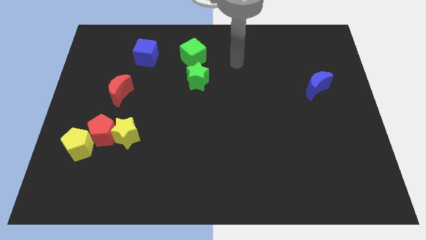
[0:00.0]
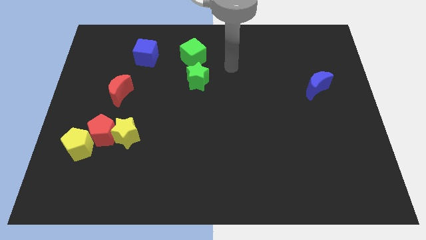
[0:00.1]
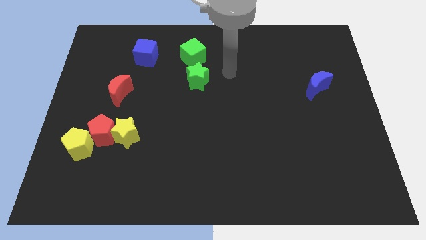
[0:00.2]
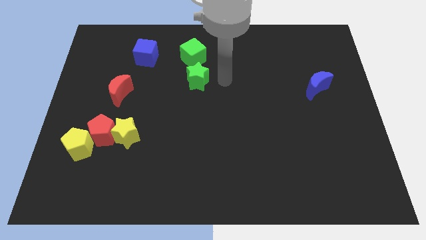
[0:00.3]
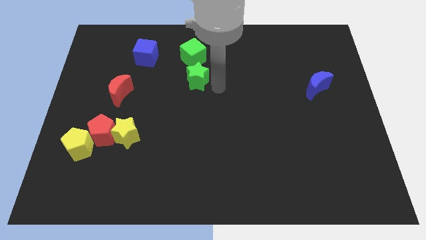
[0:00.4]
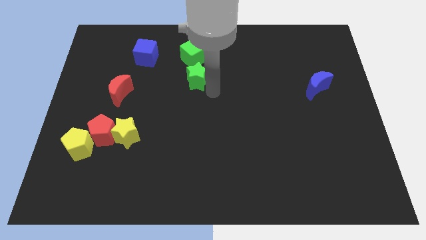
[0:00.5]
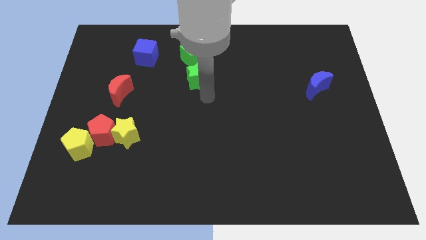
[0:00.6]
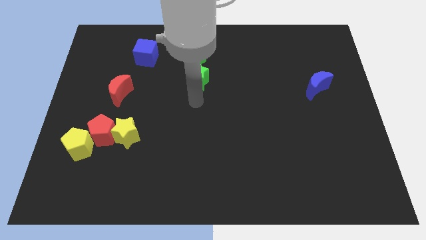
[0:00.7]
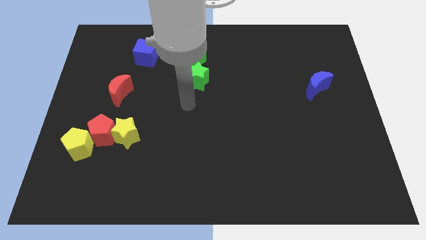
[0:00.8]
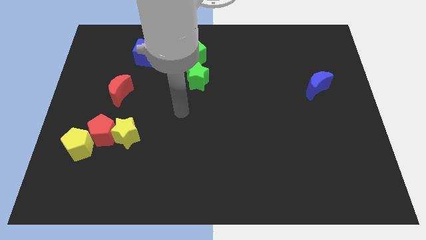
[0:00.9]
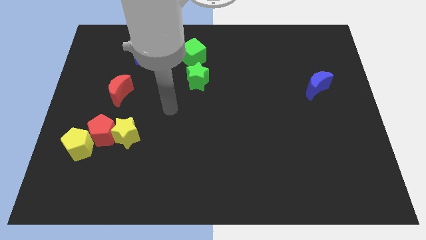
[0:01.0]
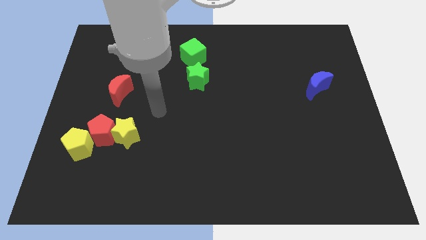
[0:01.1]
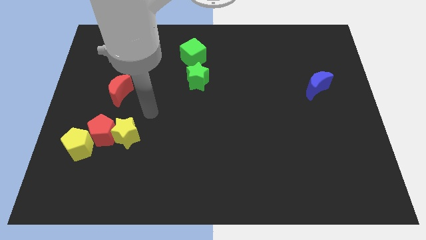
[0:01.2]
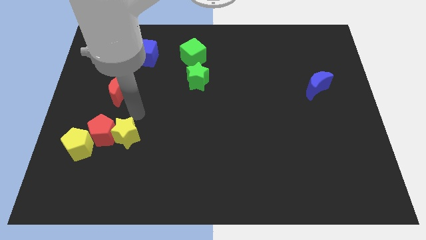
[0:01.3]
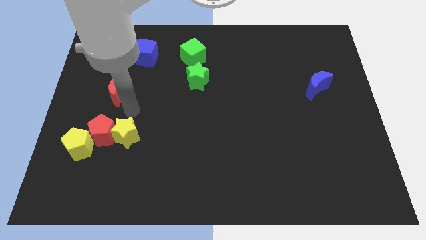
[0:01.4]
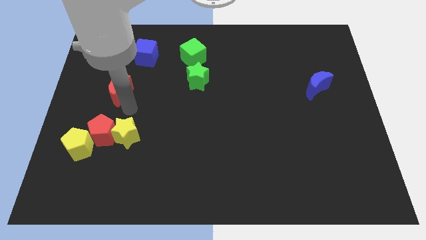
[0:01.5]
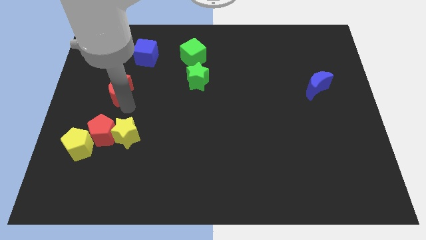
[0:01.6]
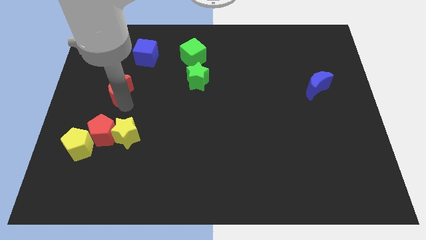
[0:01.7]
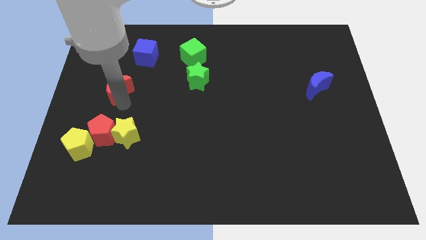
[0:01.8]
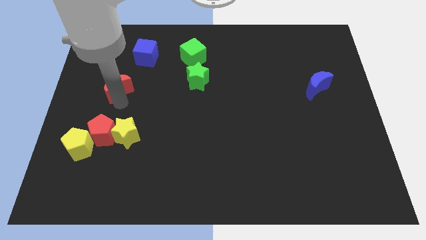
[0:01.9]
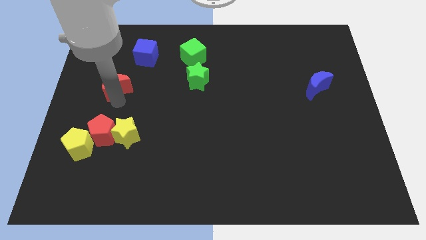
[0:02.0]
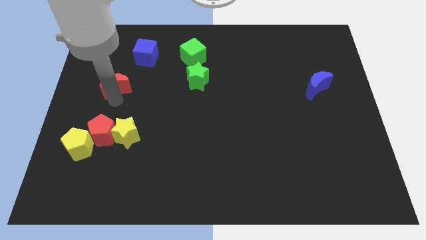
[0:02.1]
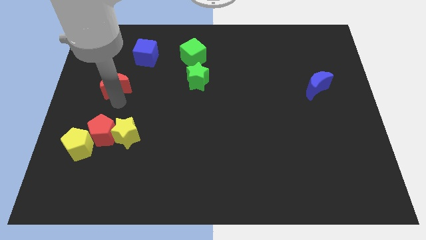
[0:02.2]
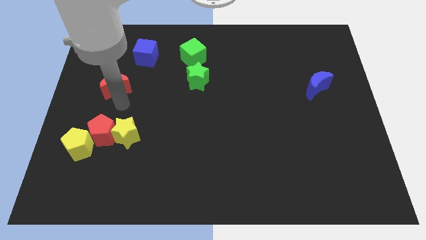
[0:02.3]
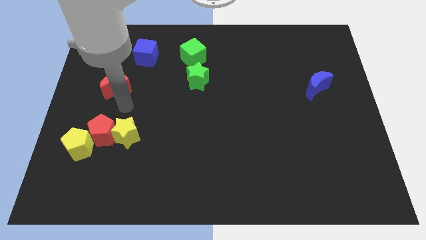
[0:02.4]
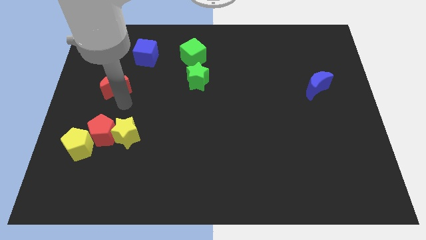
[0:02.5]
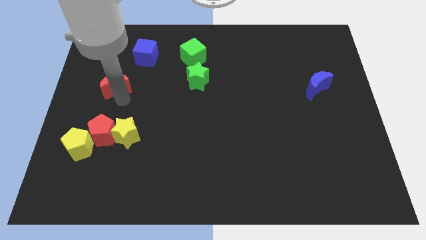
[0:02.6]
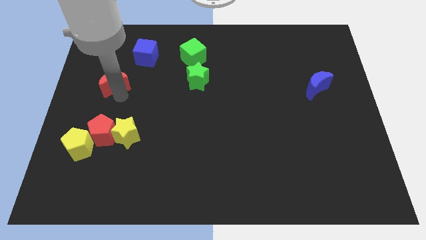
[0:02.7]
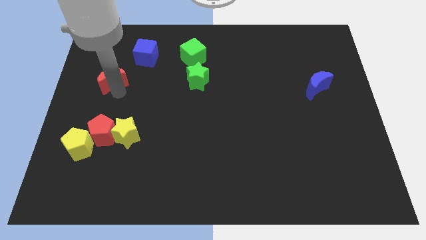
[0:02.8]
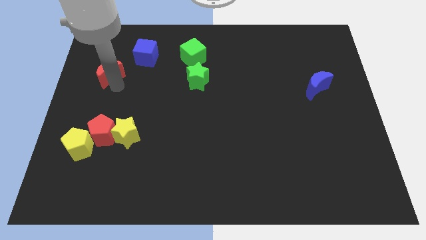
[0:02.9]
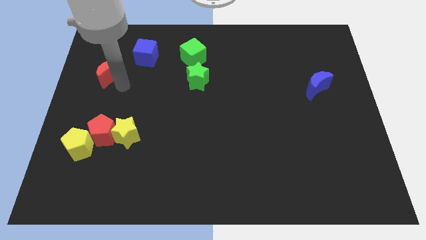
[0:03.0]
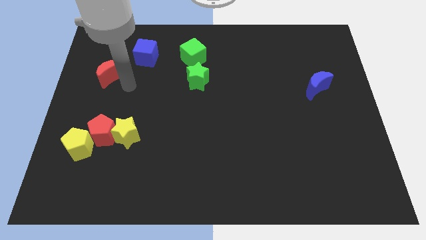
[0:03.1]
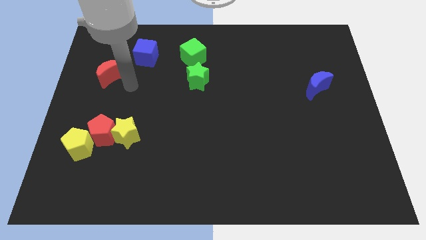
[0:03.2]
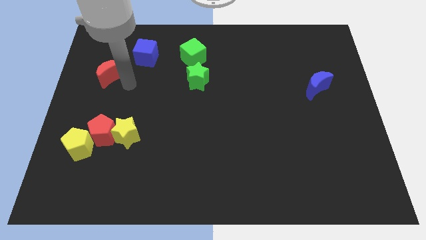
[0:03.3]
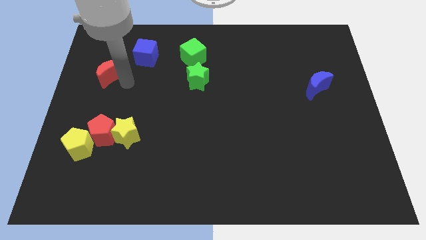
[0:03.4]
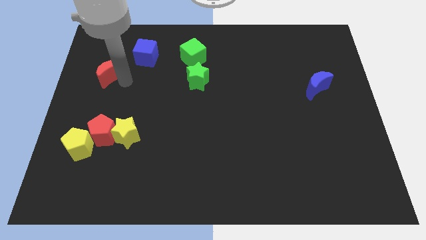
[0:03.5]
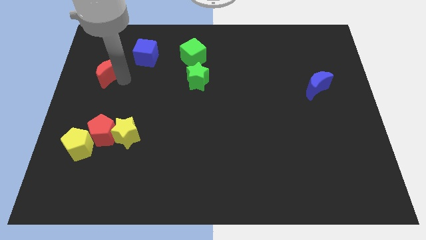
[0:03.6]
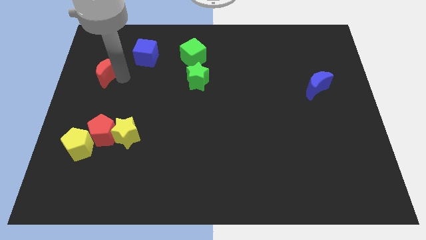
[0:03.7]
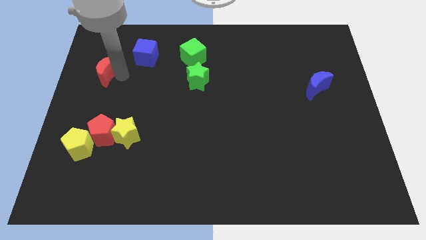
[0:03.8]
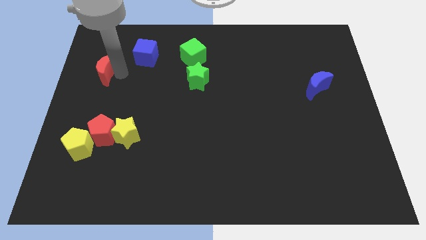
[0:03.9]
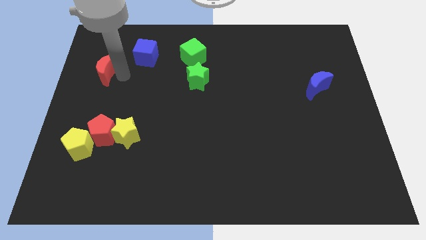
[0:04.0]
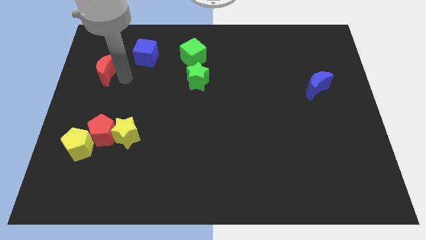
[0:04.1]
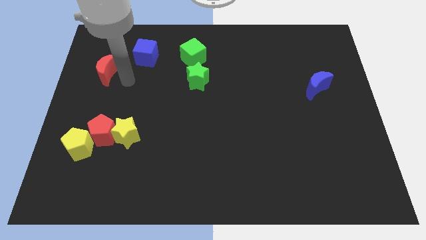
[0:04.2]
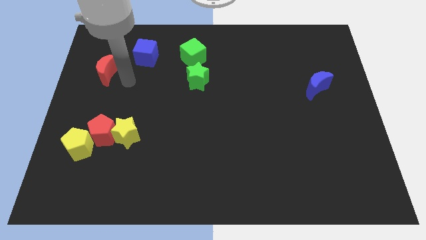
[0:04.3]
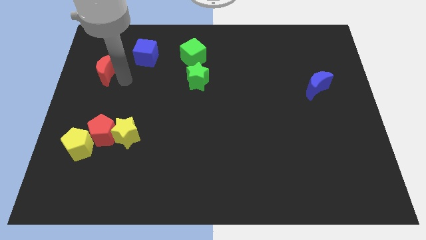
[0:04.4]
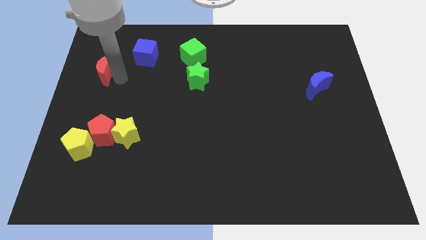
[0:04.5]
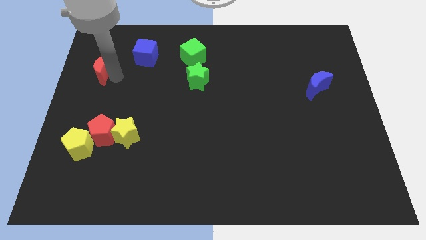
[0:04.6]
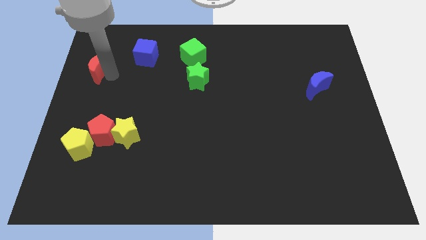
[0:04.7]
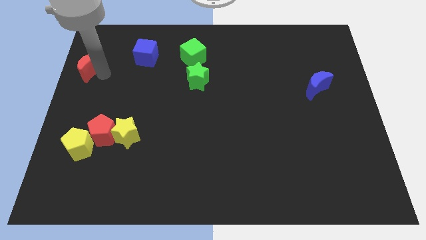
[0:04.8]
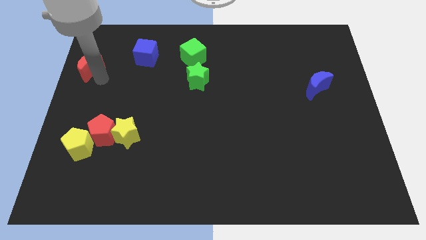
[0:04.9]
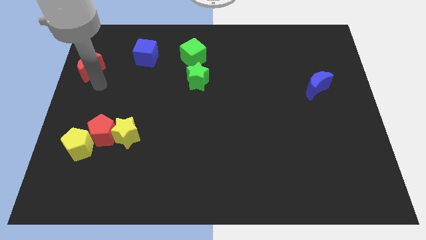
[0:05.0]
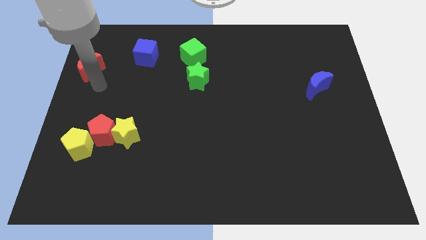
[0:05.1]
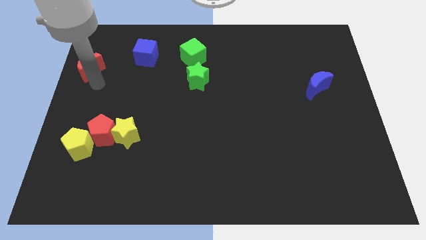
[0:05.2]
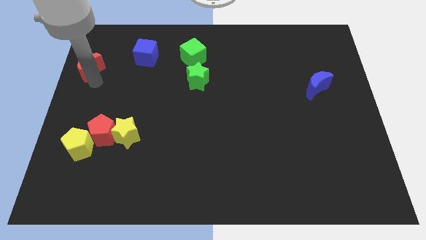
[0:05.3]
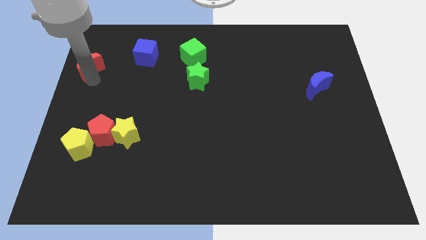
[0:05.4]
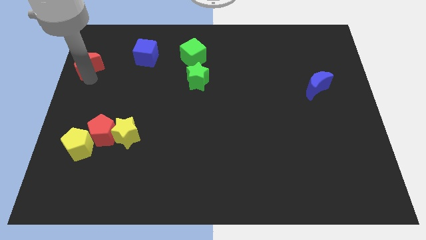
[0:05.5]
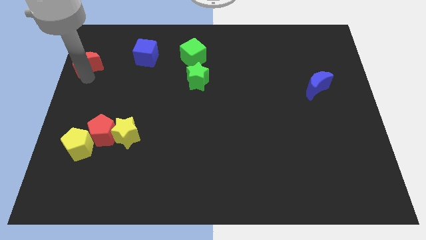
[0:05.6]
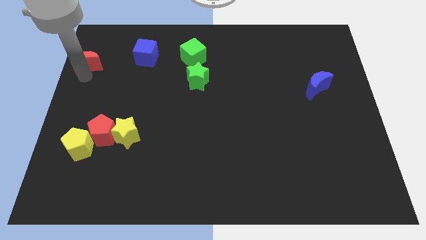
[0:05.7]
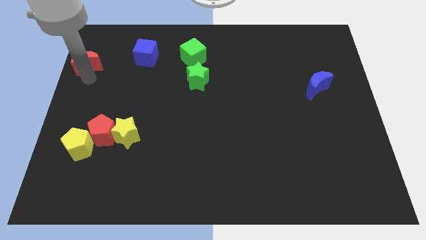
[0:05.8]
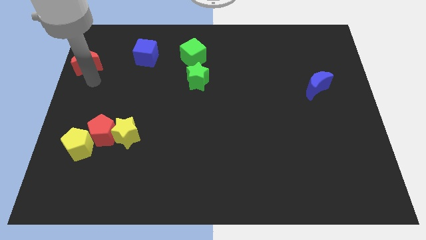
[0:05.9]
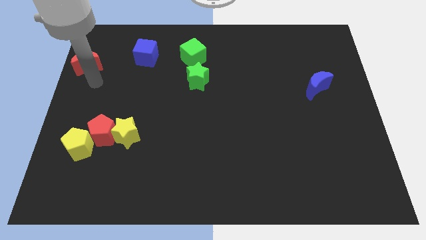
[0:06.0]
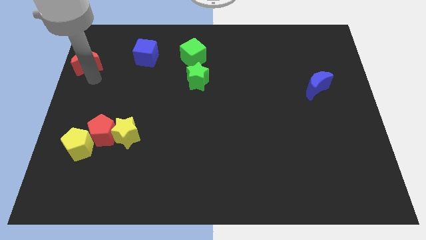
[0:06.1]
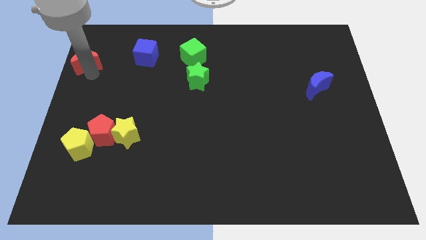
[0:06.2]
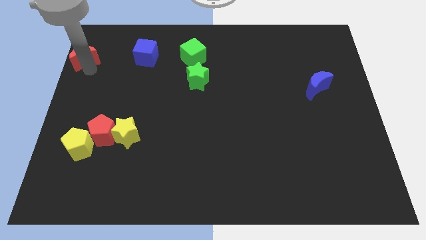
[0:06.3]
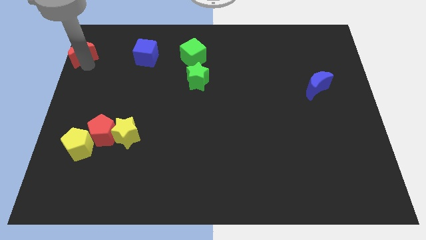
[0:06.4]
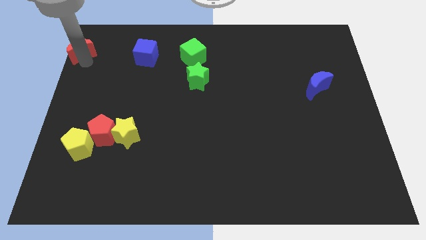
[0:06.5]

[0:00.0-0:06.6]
slide the red moon to the upper left corner
